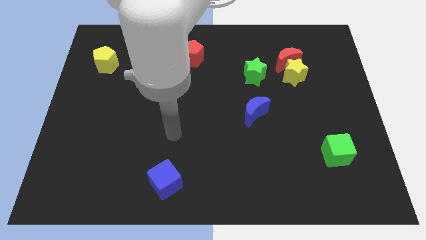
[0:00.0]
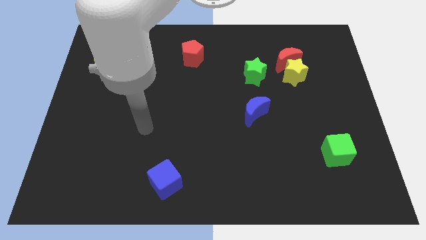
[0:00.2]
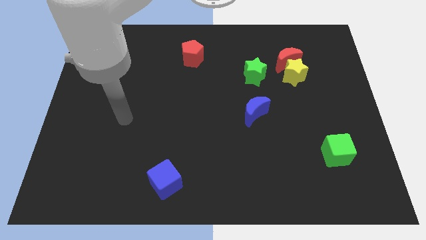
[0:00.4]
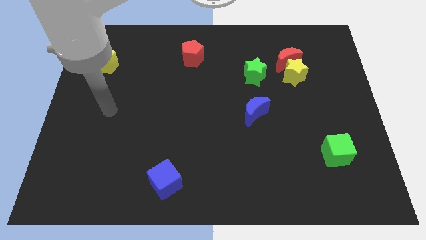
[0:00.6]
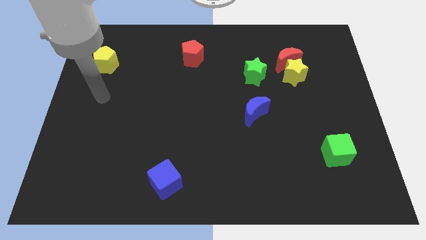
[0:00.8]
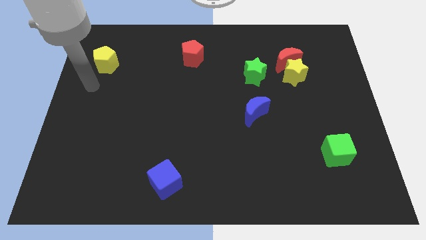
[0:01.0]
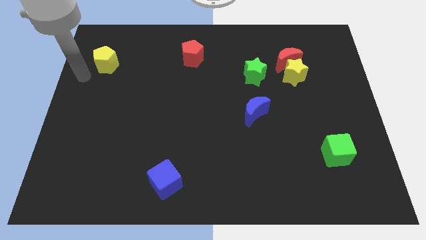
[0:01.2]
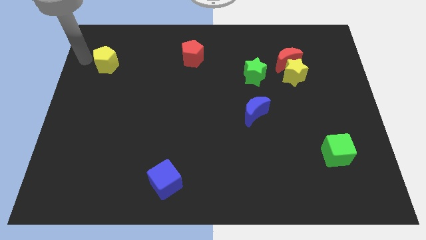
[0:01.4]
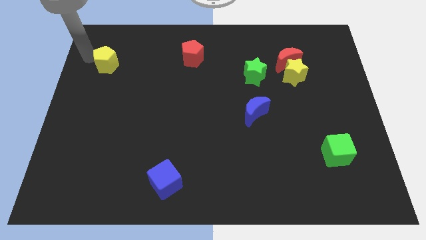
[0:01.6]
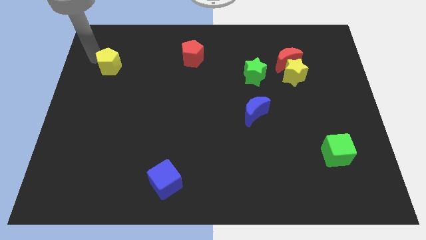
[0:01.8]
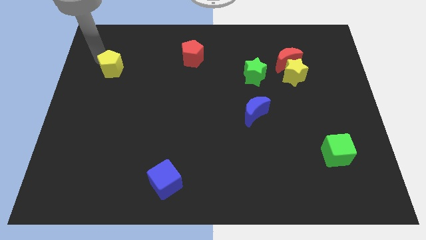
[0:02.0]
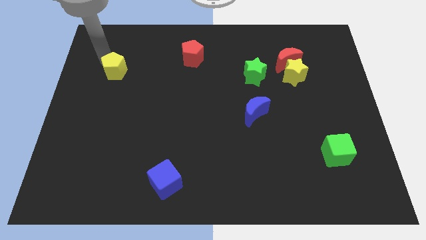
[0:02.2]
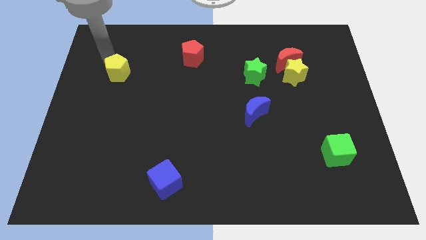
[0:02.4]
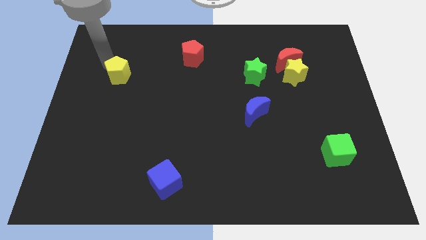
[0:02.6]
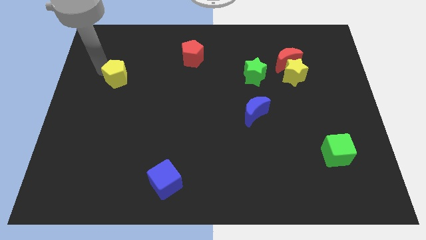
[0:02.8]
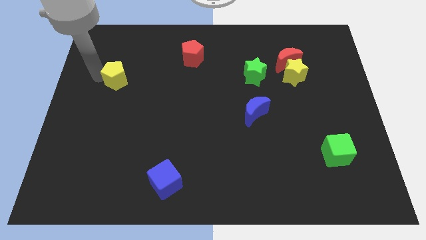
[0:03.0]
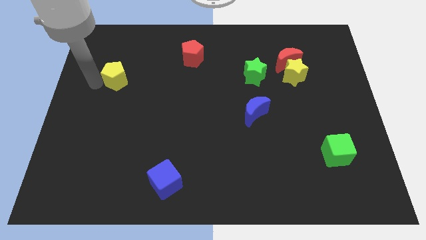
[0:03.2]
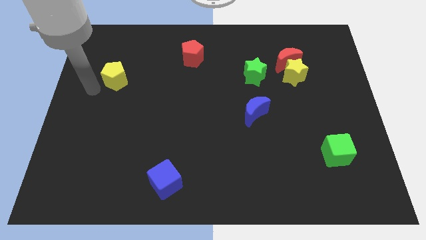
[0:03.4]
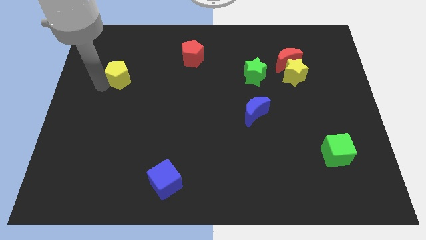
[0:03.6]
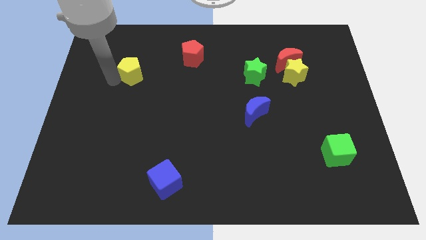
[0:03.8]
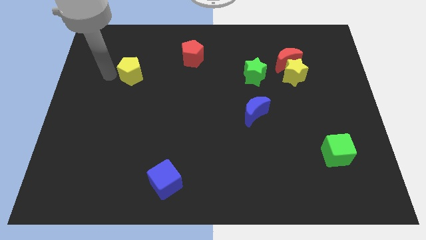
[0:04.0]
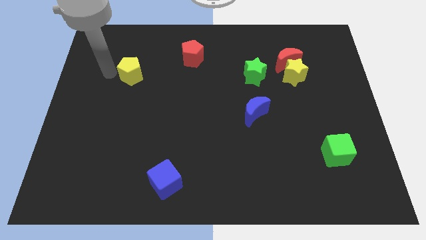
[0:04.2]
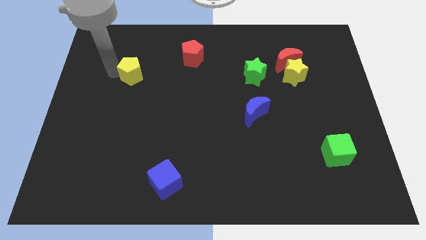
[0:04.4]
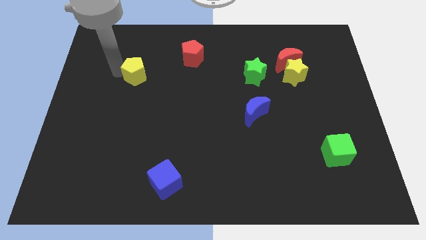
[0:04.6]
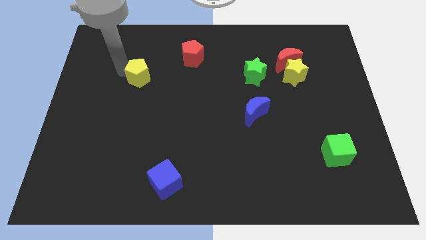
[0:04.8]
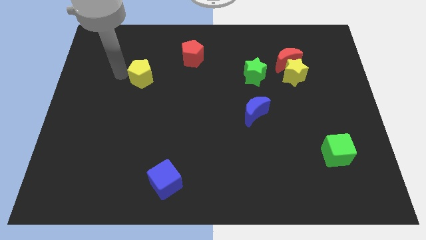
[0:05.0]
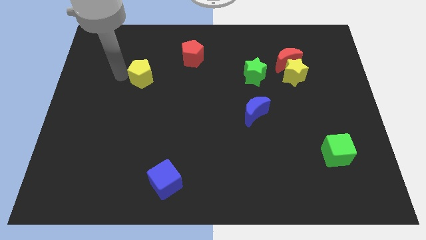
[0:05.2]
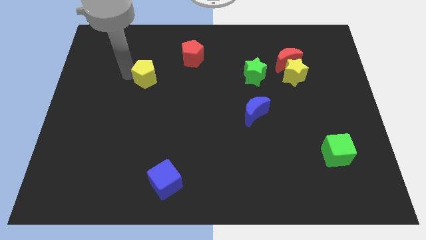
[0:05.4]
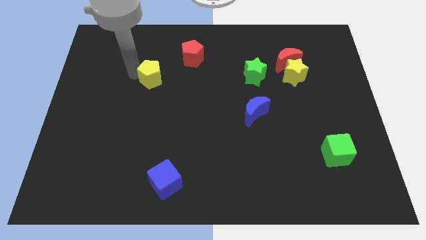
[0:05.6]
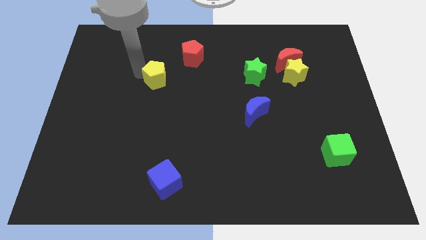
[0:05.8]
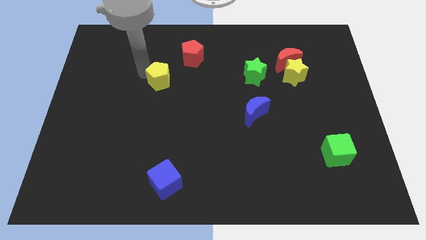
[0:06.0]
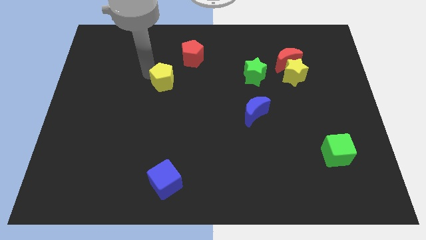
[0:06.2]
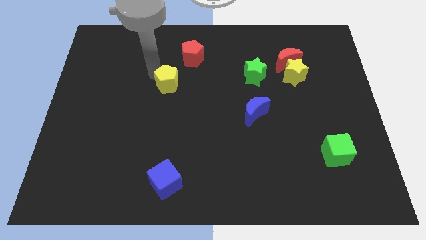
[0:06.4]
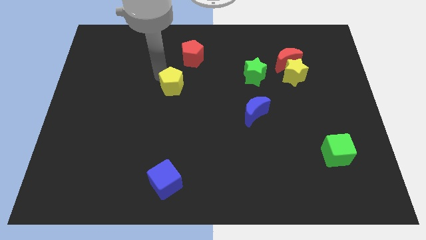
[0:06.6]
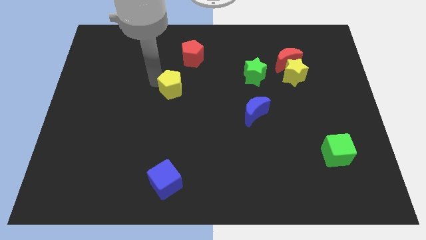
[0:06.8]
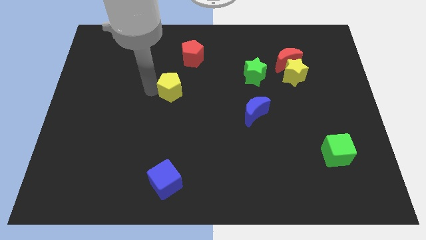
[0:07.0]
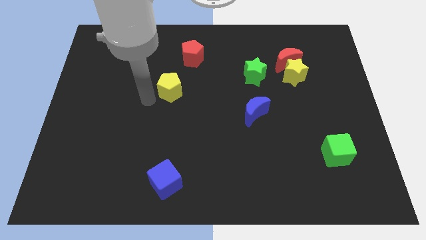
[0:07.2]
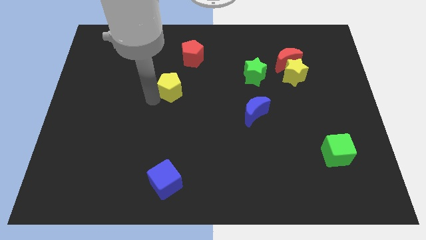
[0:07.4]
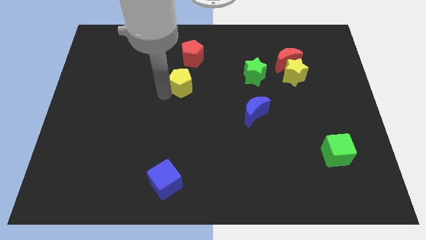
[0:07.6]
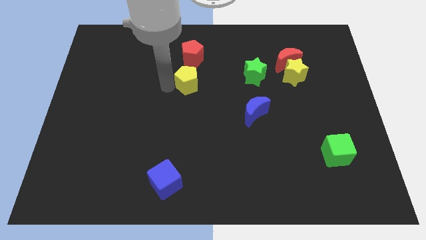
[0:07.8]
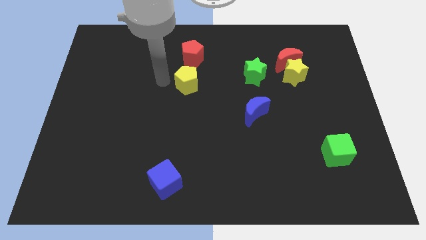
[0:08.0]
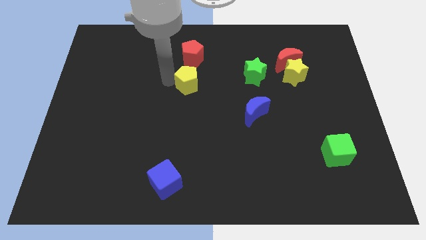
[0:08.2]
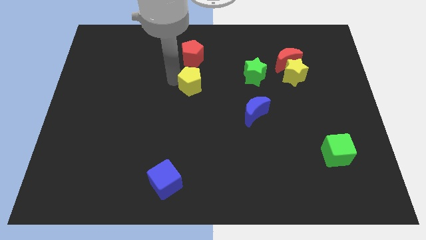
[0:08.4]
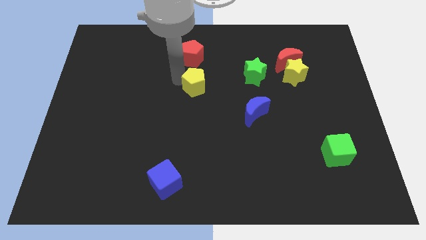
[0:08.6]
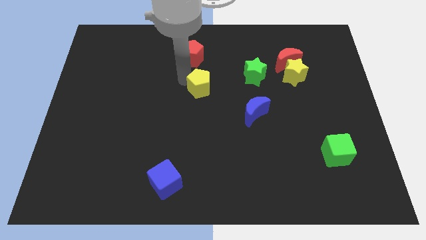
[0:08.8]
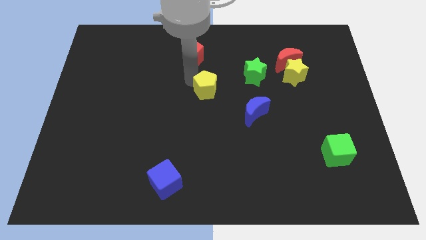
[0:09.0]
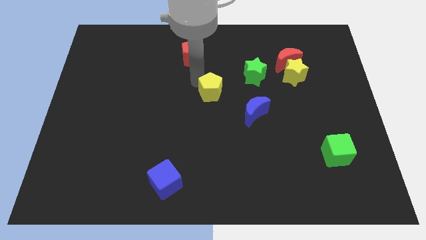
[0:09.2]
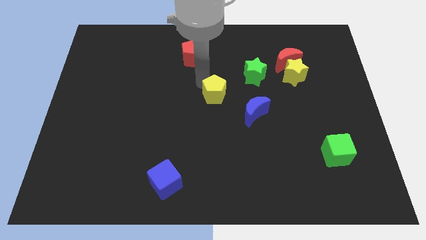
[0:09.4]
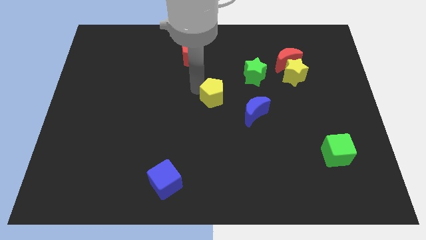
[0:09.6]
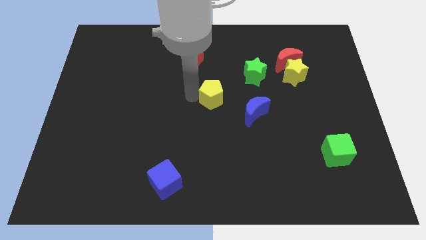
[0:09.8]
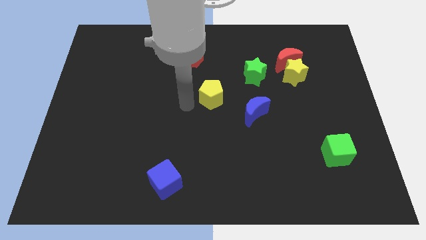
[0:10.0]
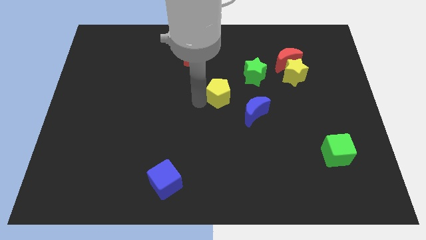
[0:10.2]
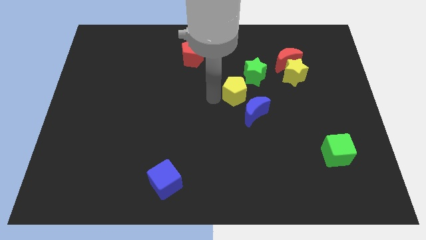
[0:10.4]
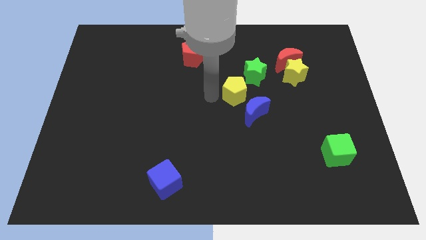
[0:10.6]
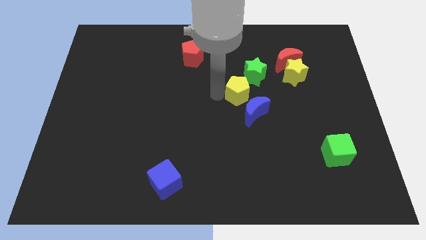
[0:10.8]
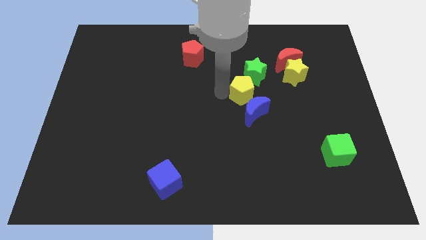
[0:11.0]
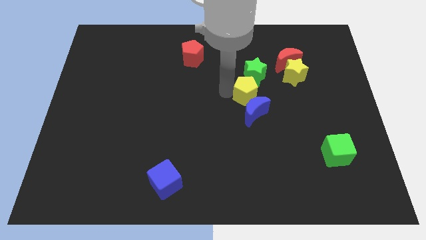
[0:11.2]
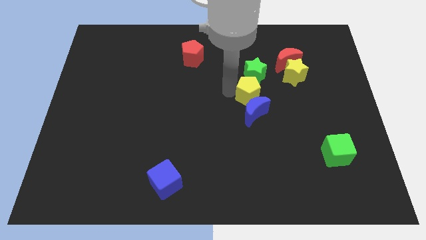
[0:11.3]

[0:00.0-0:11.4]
move the yellow pentagon to the top right side of the blue moon

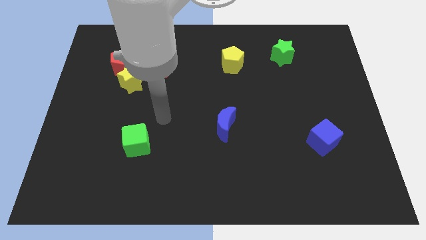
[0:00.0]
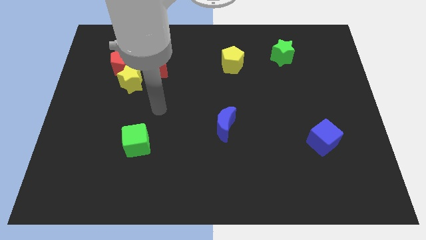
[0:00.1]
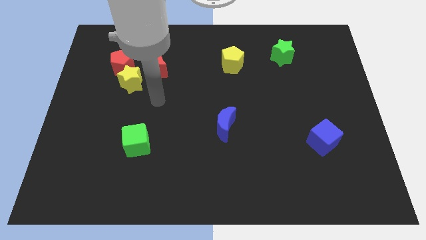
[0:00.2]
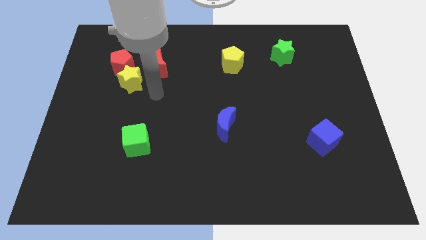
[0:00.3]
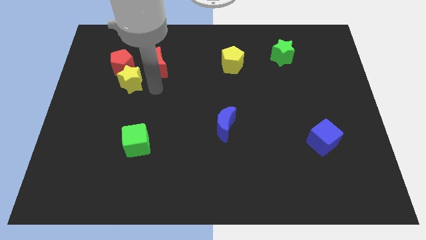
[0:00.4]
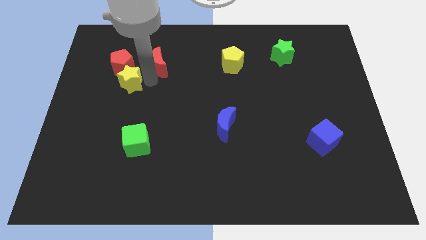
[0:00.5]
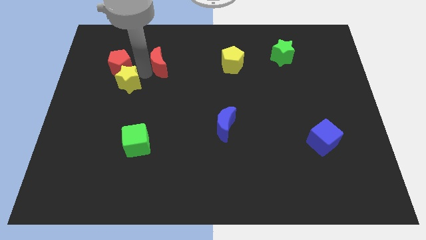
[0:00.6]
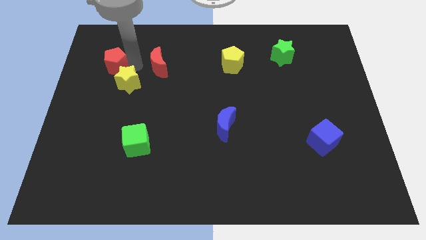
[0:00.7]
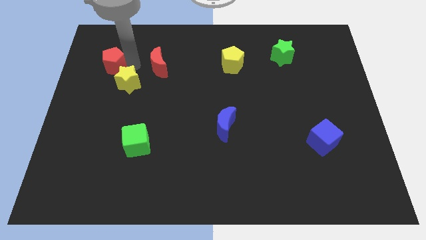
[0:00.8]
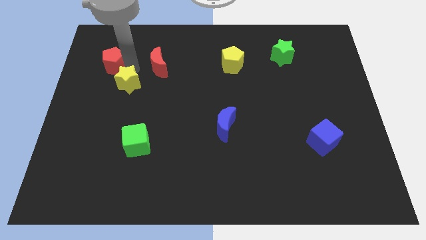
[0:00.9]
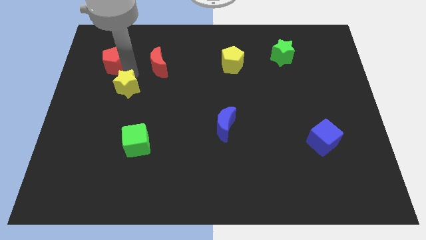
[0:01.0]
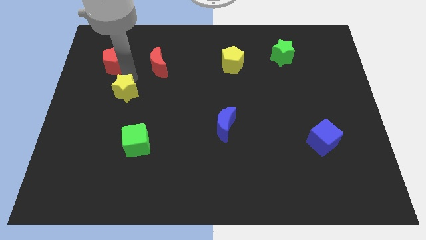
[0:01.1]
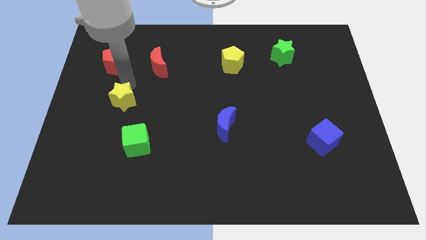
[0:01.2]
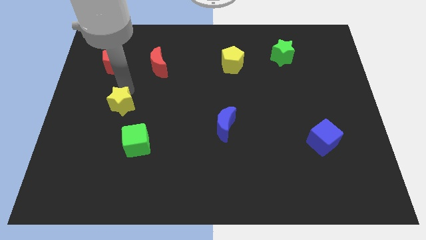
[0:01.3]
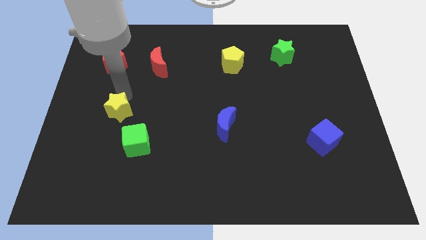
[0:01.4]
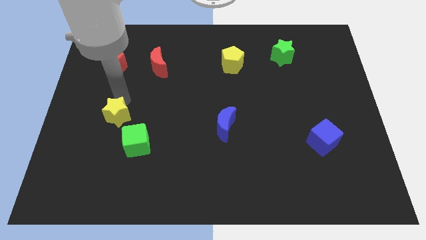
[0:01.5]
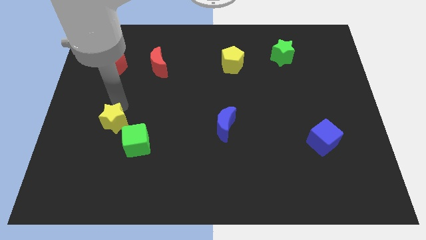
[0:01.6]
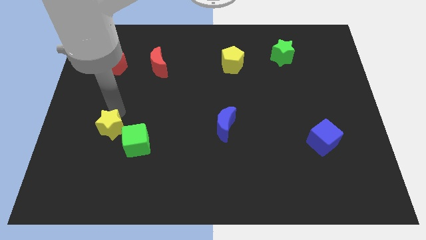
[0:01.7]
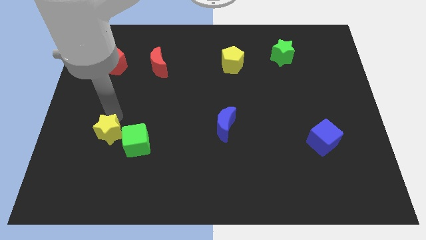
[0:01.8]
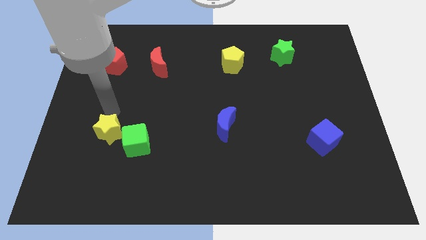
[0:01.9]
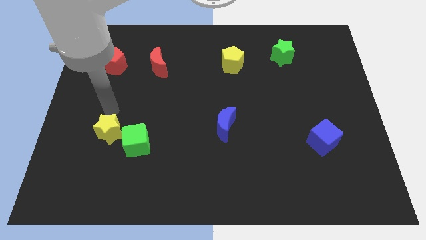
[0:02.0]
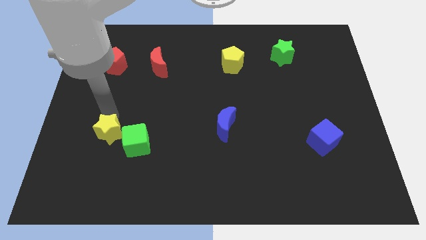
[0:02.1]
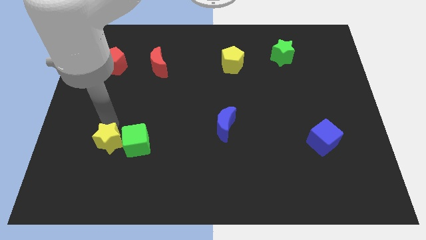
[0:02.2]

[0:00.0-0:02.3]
push the yellow star diagonally down and to the left of the green cube

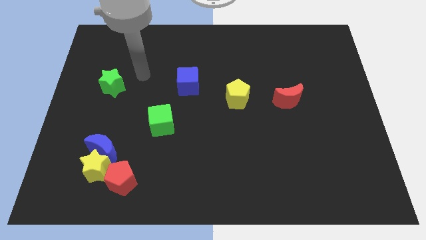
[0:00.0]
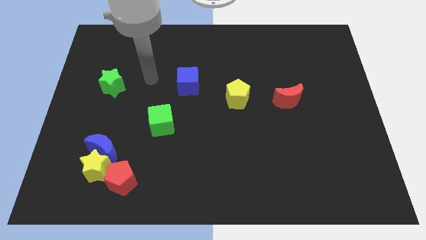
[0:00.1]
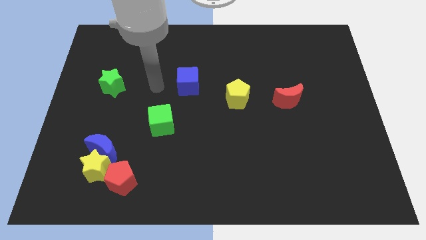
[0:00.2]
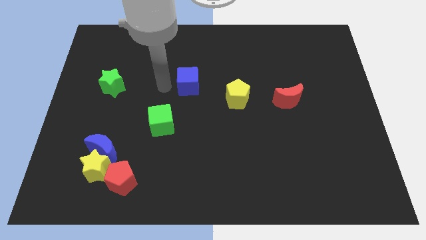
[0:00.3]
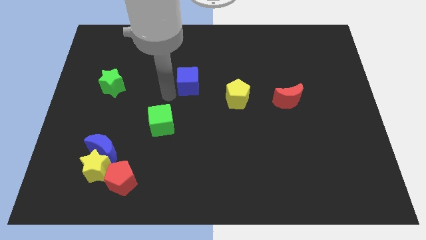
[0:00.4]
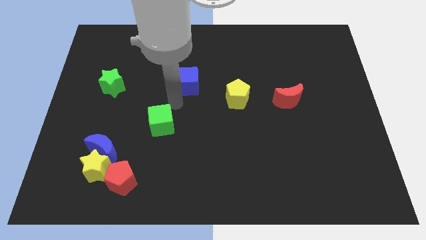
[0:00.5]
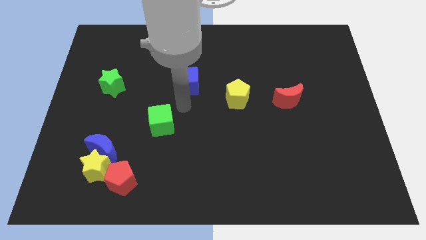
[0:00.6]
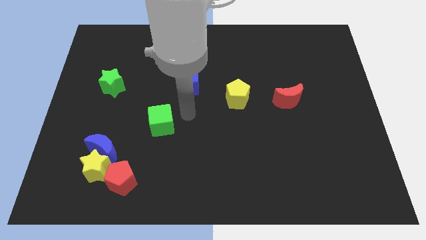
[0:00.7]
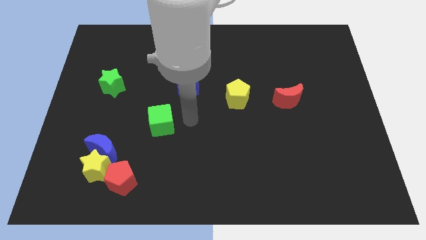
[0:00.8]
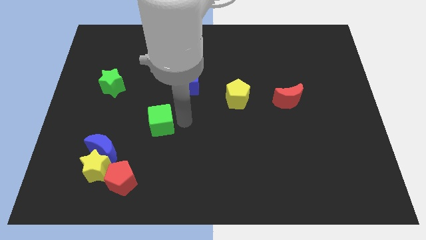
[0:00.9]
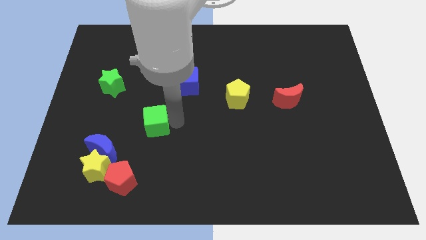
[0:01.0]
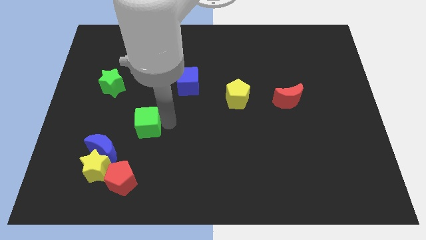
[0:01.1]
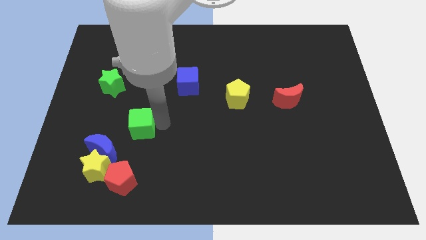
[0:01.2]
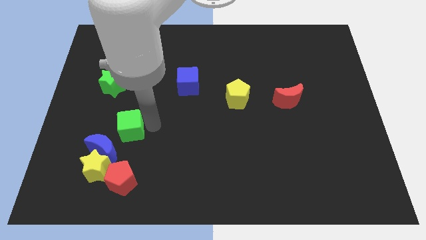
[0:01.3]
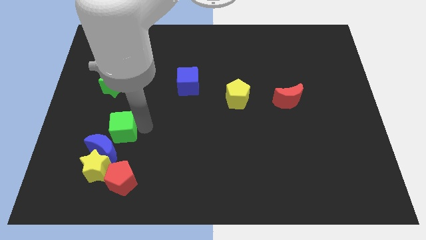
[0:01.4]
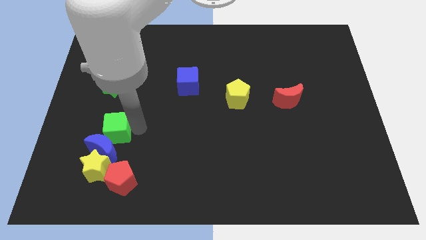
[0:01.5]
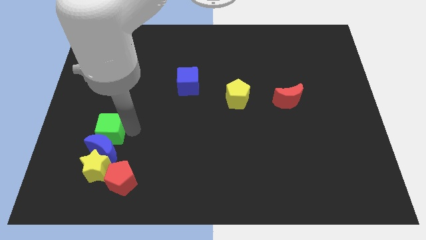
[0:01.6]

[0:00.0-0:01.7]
move the green cube diagonally up and to the left of the blue moon
